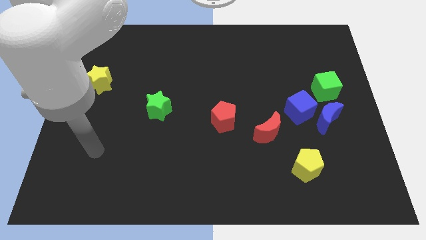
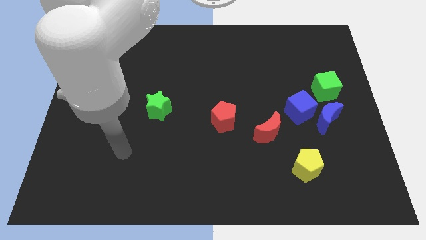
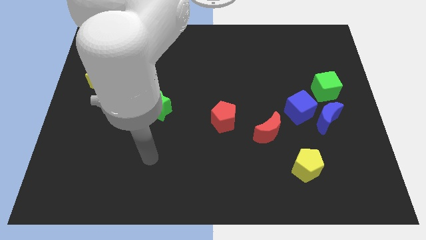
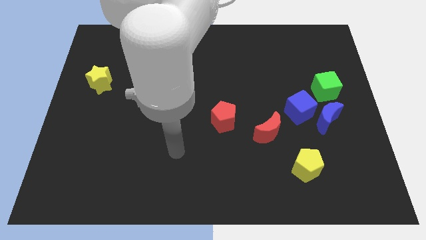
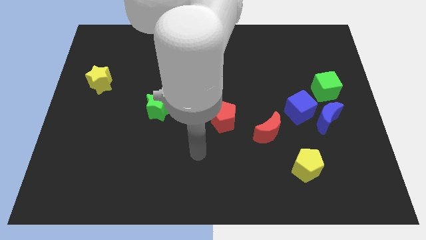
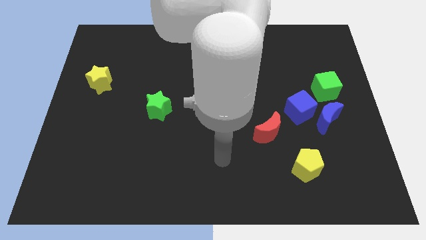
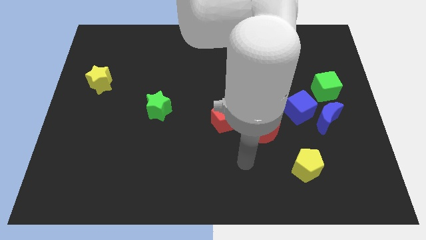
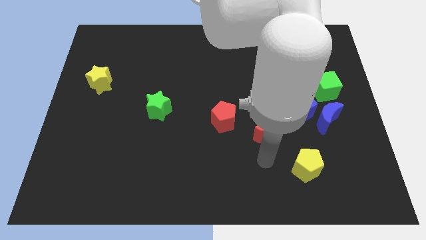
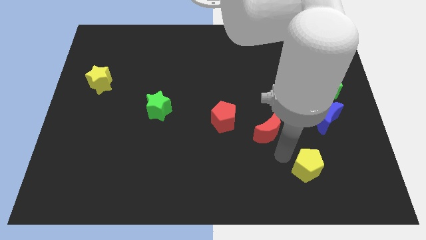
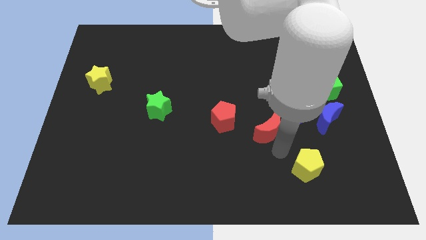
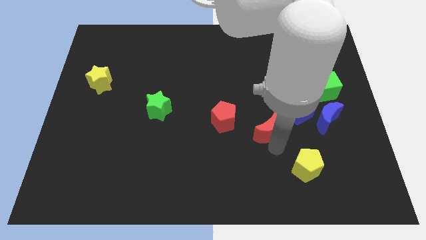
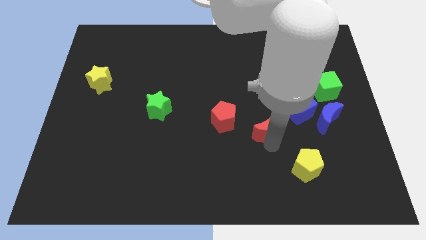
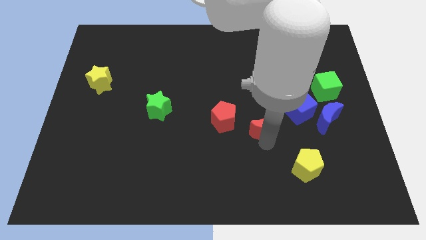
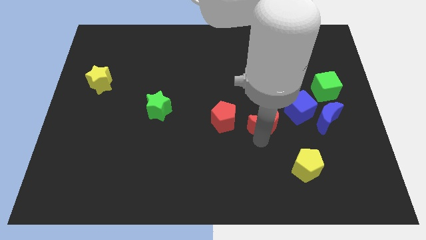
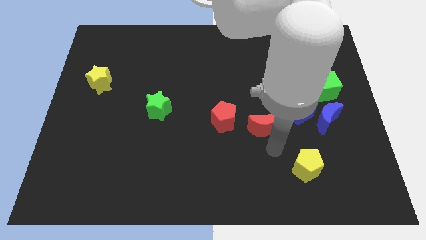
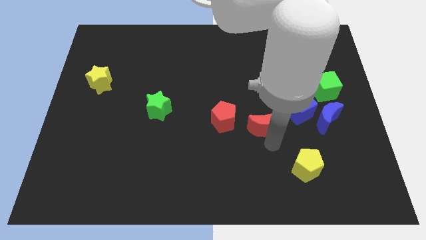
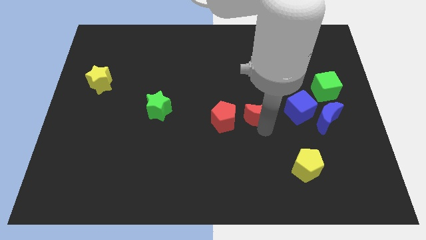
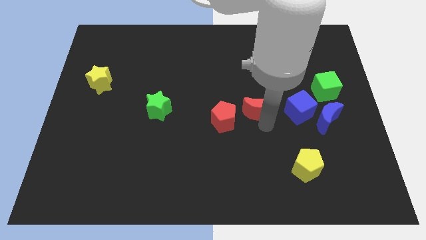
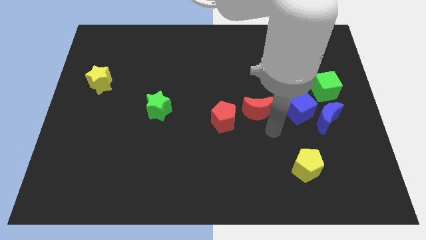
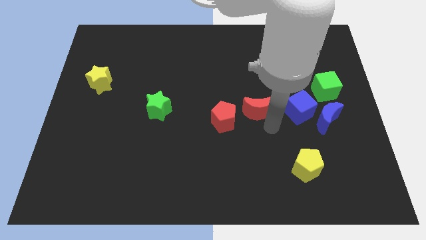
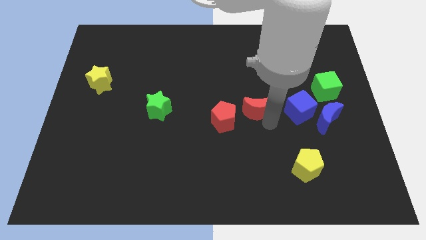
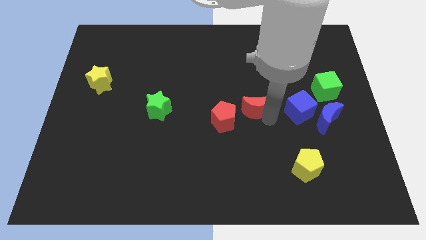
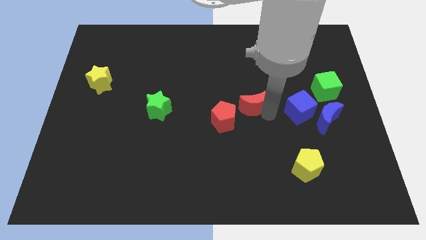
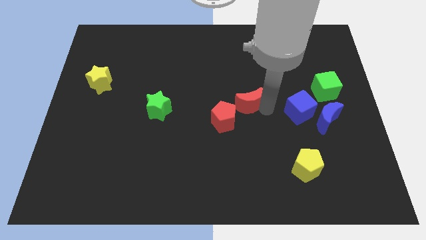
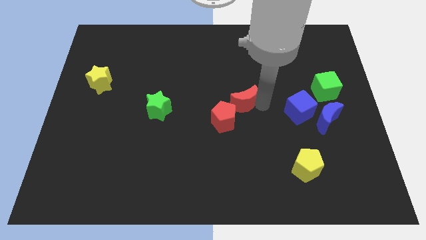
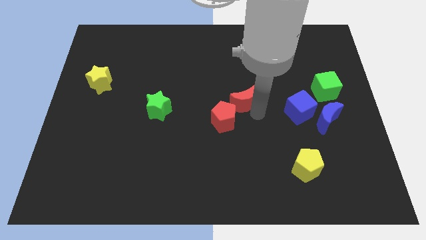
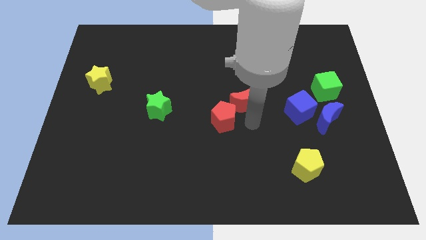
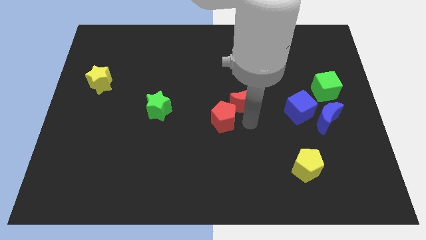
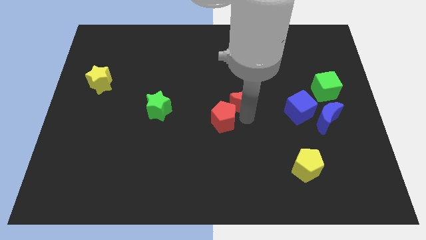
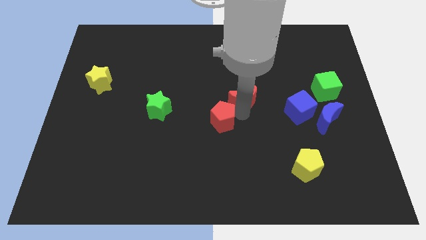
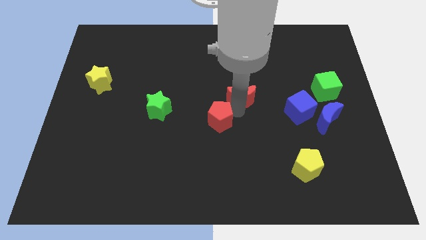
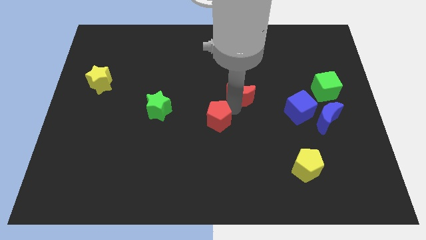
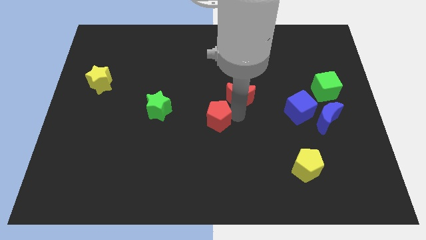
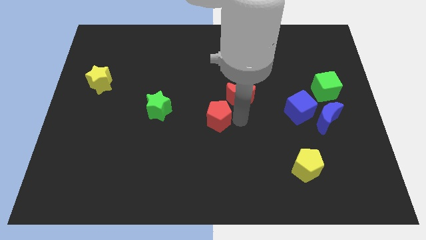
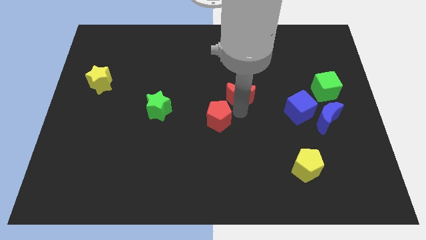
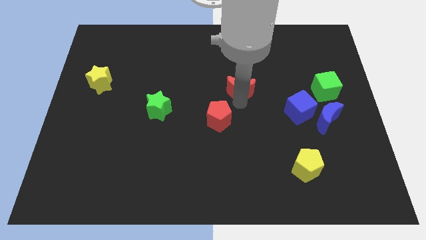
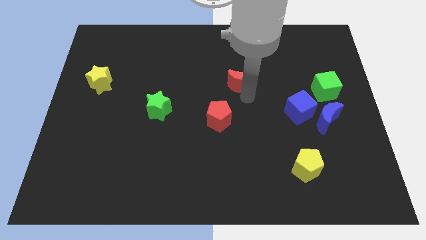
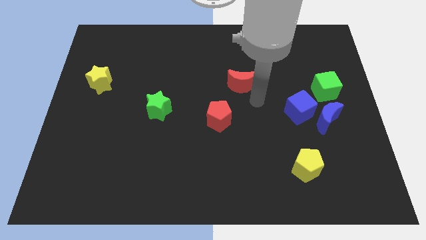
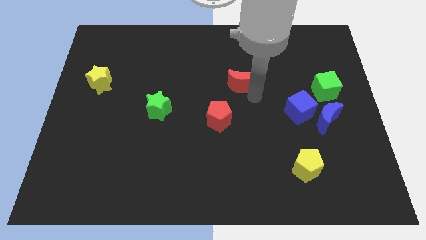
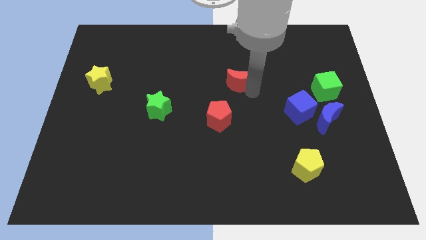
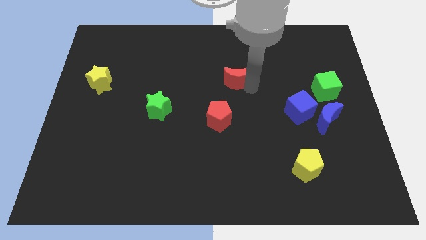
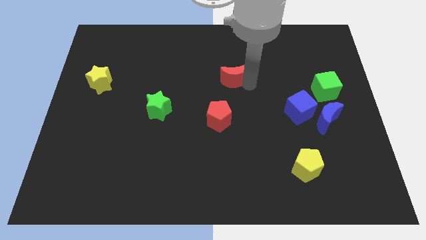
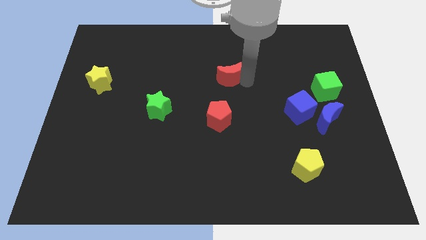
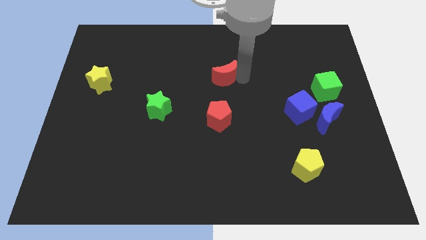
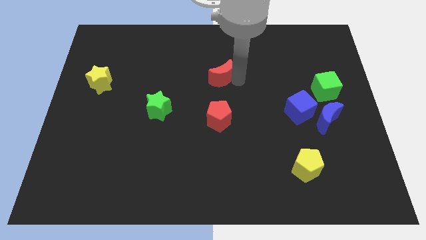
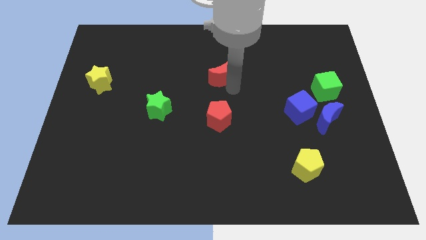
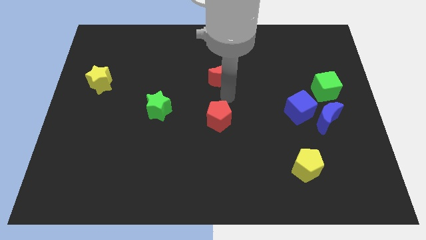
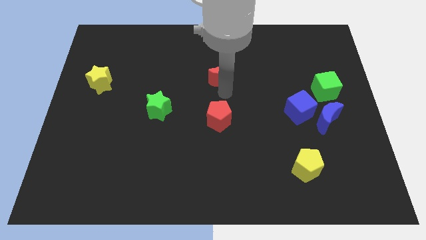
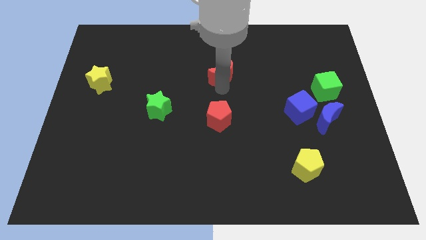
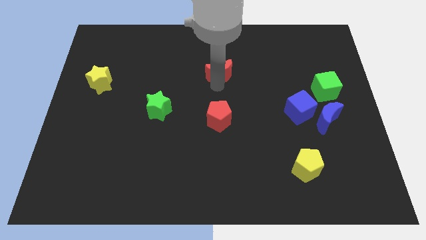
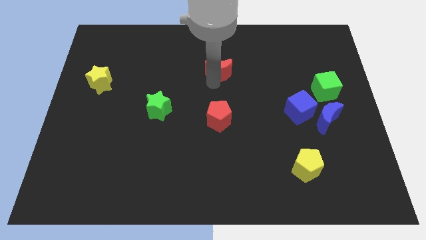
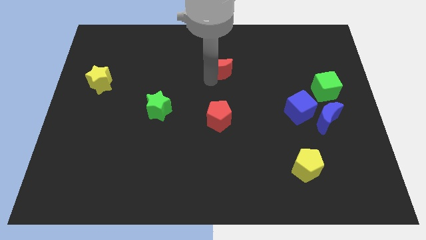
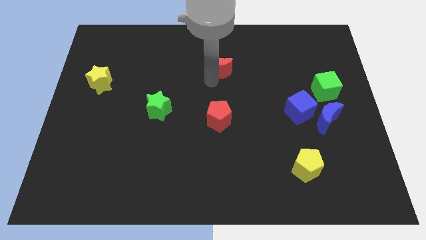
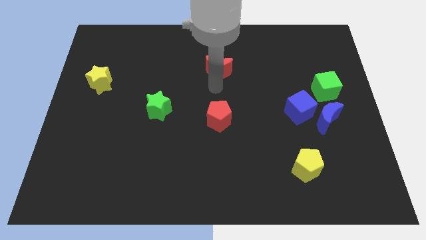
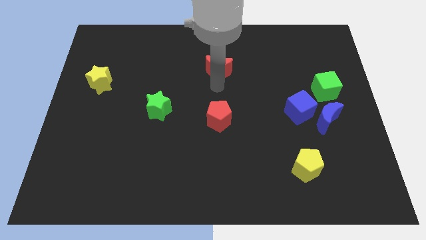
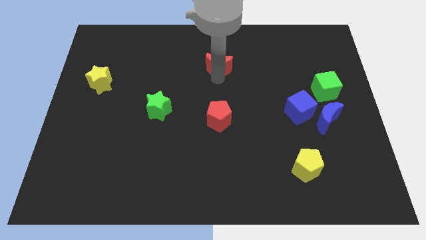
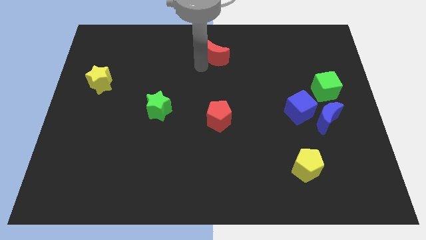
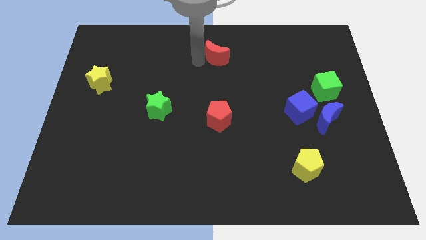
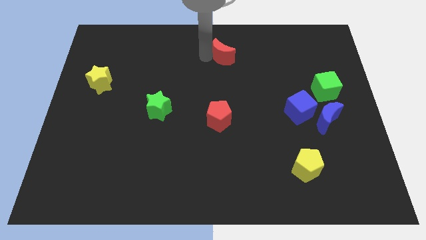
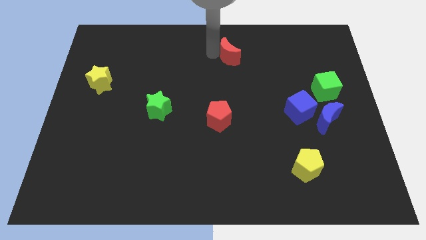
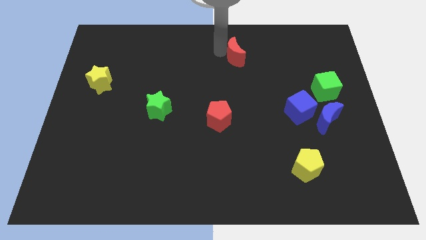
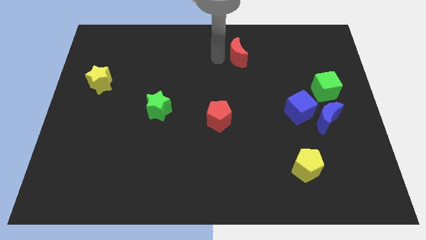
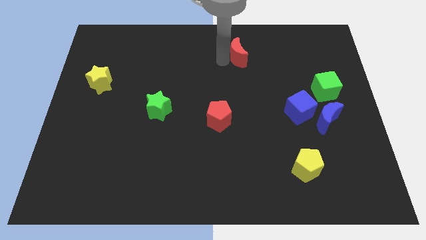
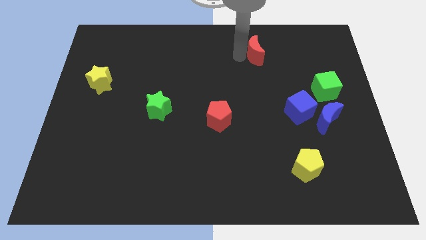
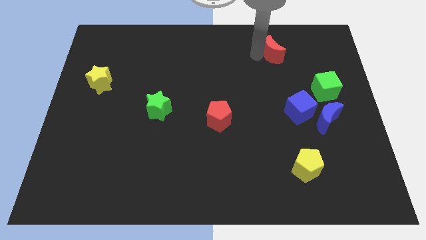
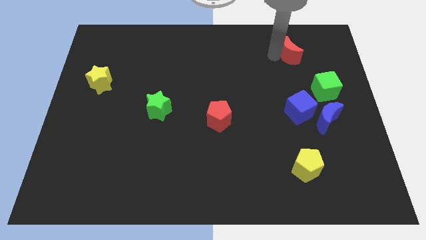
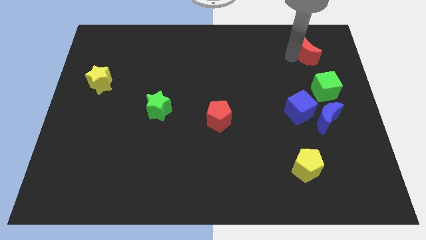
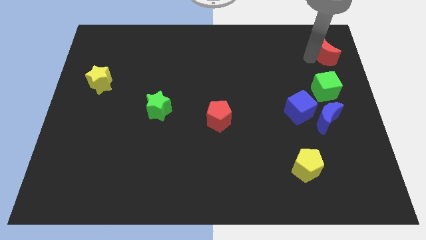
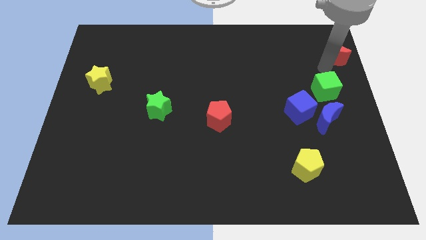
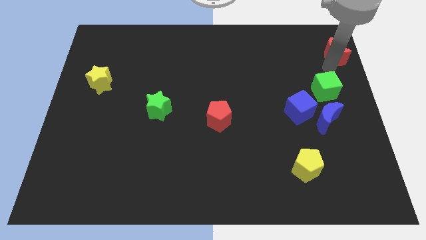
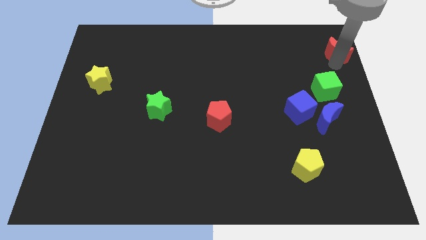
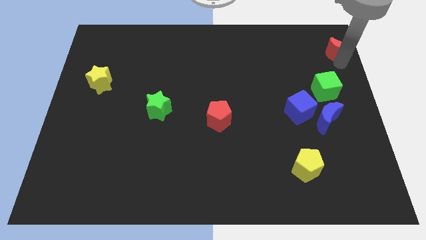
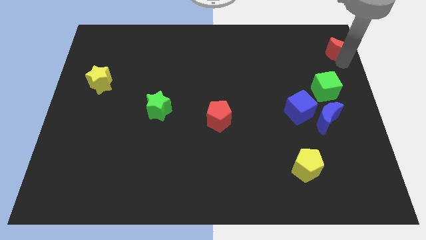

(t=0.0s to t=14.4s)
put the red moon to the top right corner
